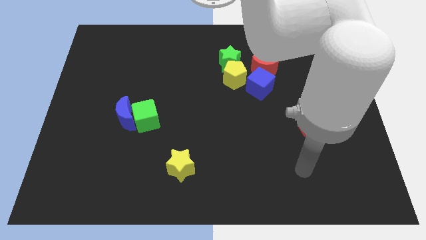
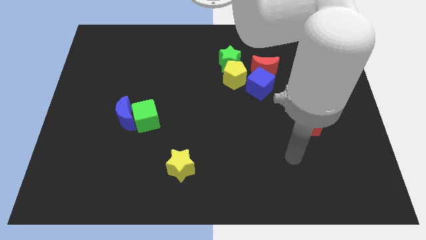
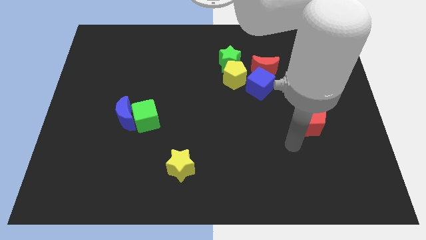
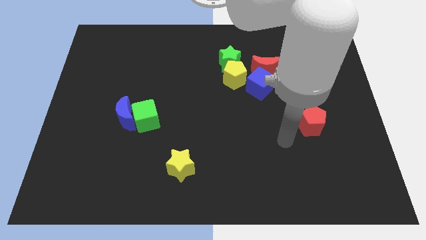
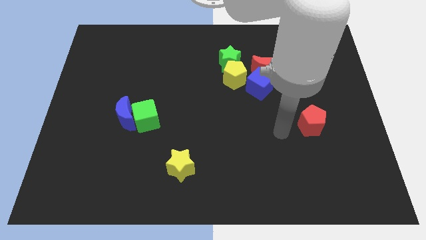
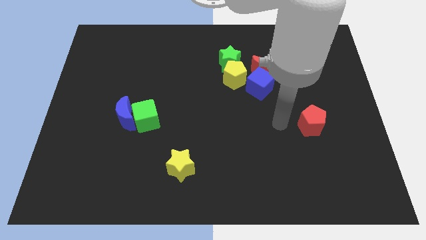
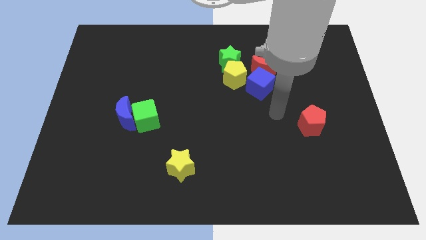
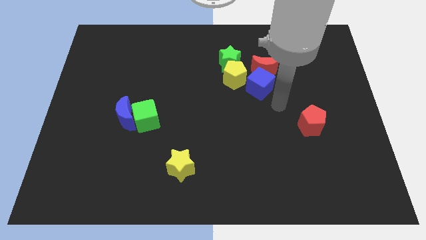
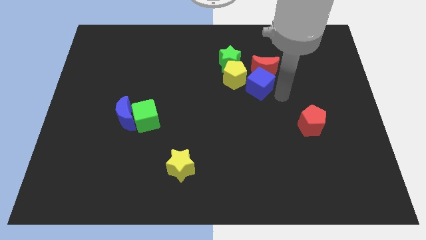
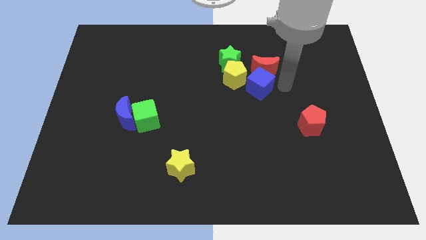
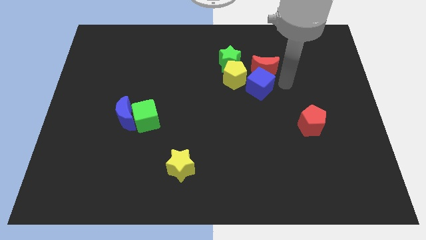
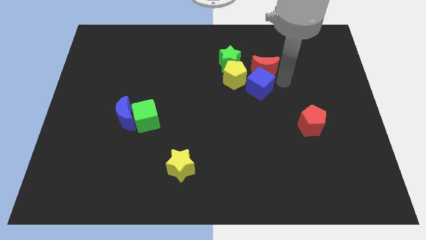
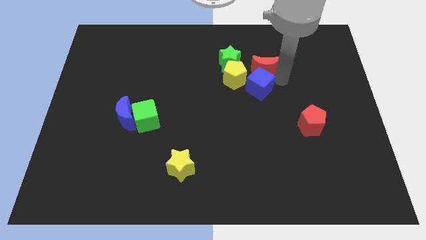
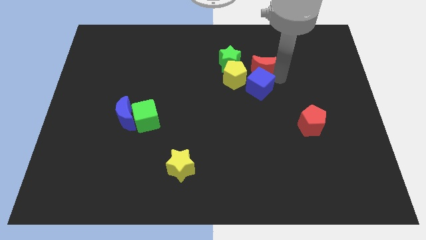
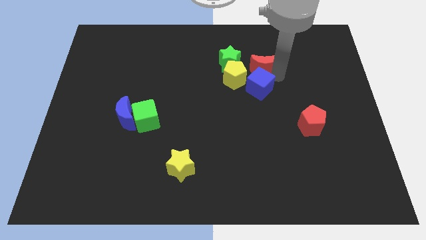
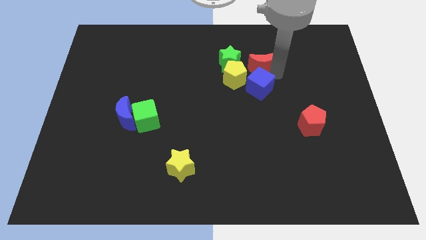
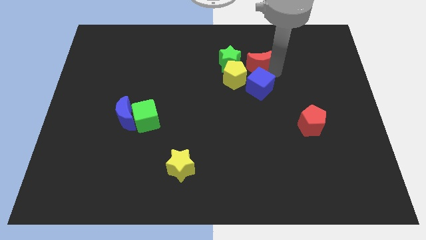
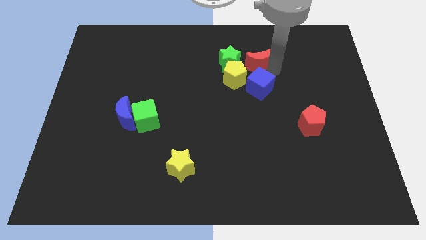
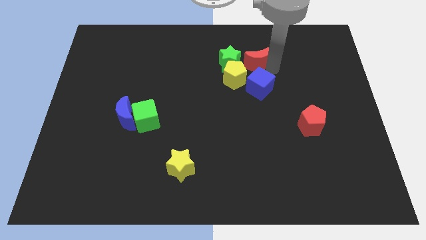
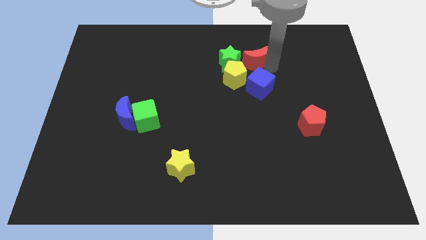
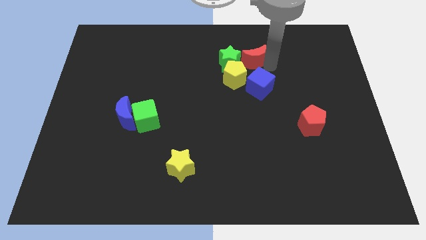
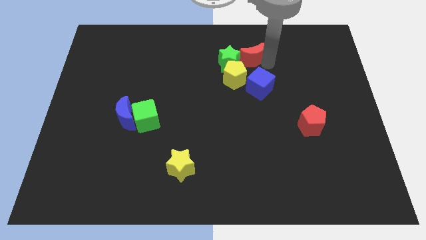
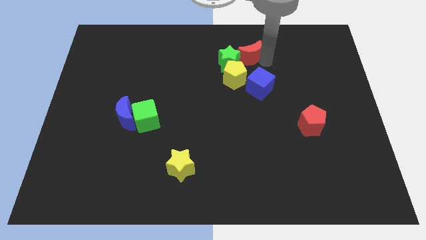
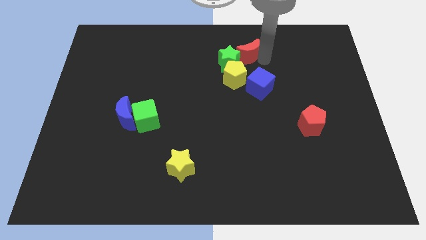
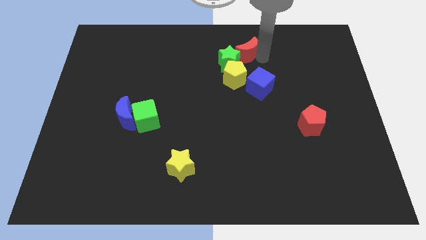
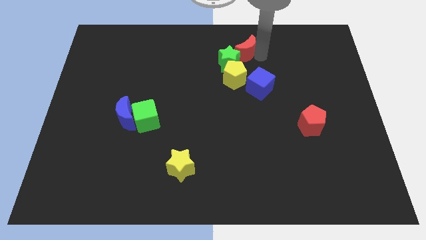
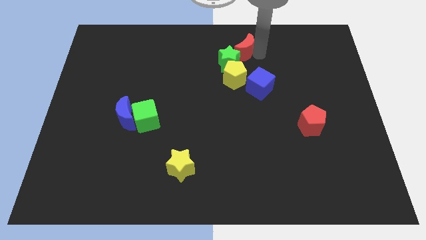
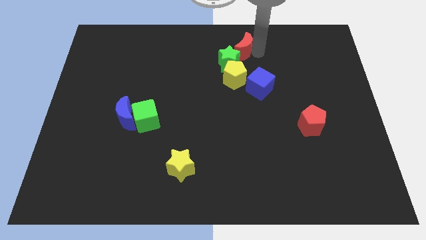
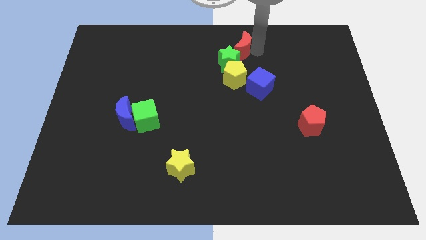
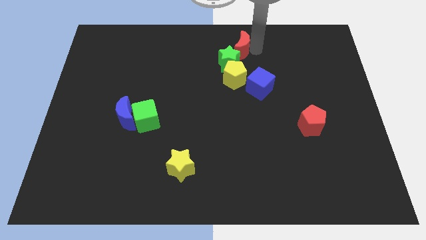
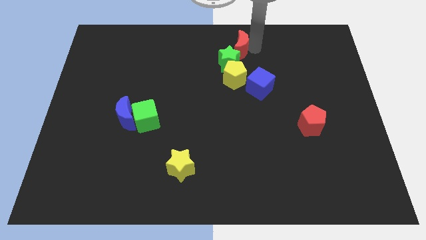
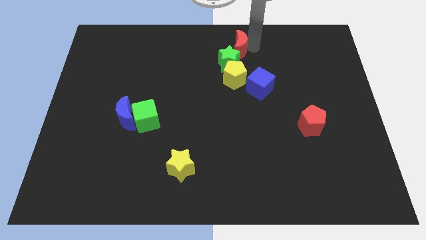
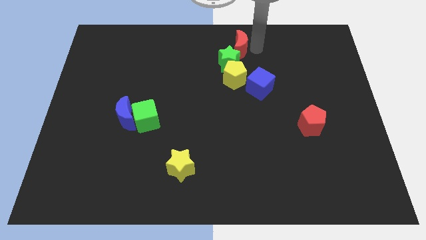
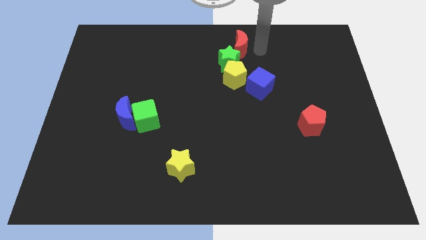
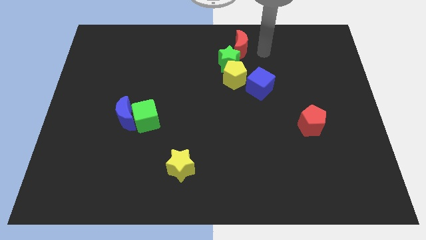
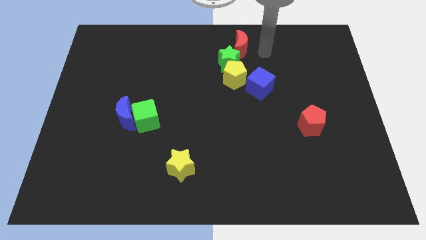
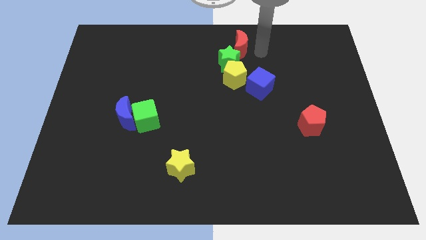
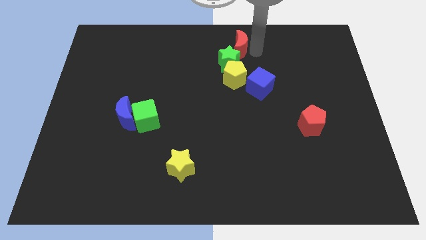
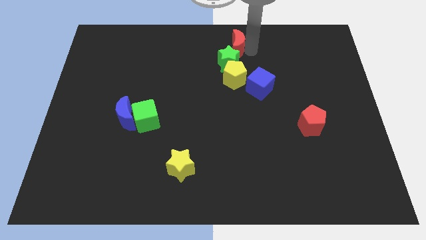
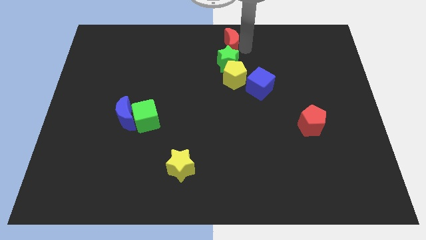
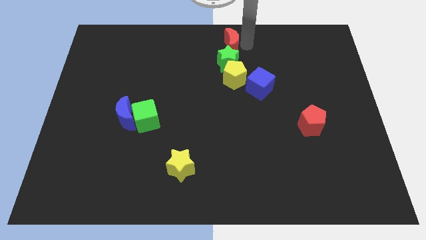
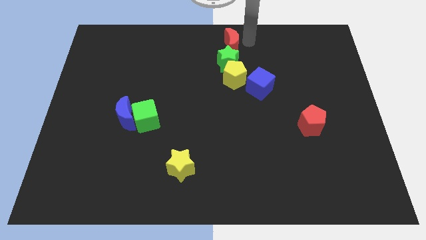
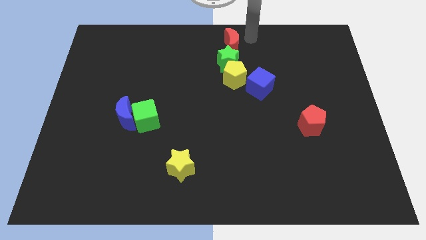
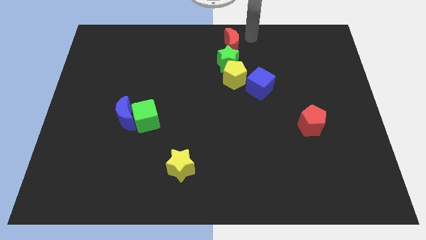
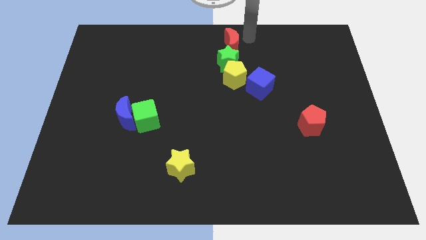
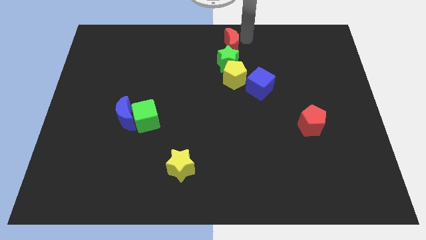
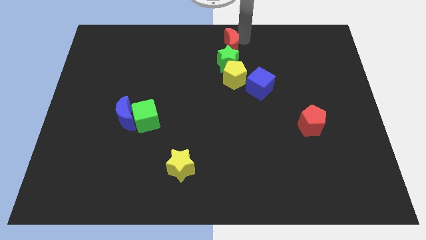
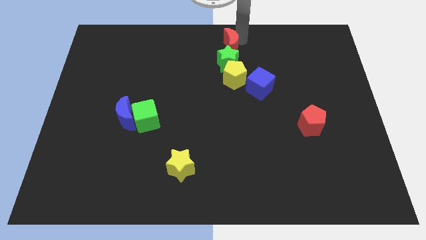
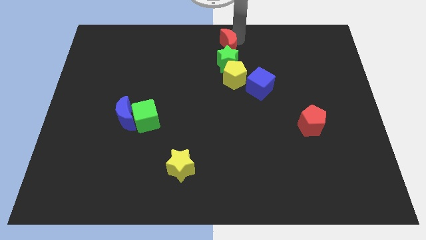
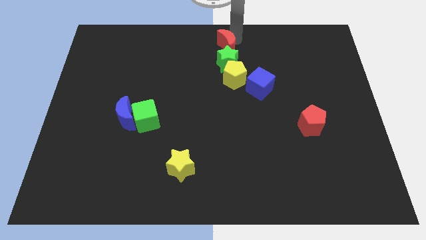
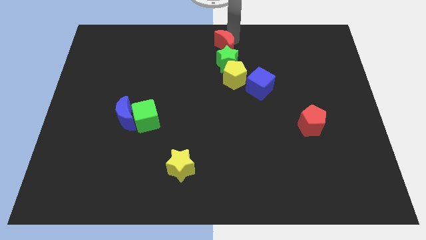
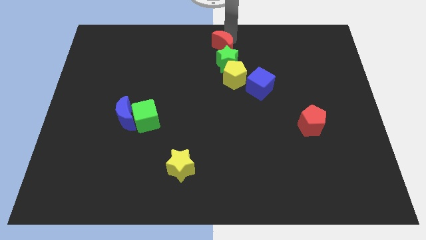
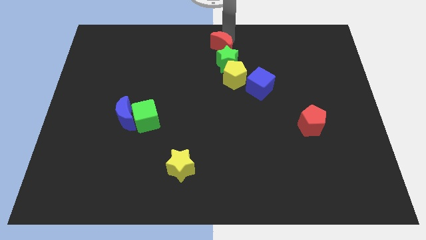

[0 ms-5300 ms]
push the red moon to the left a little

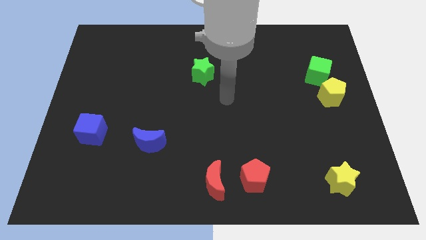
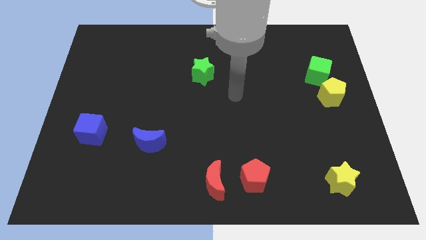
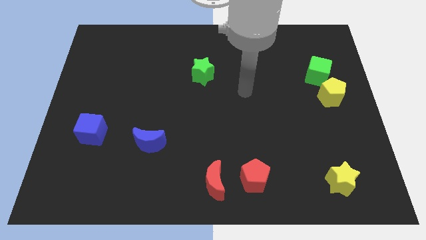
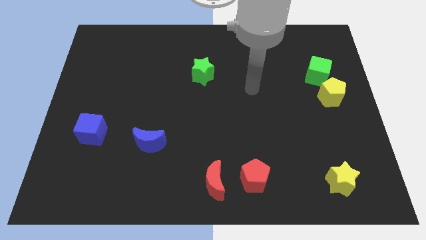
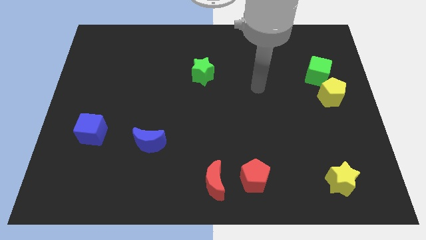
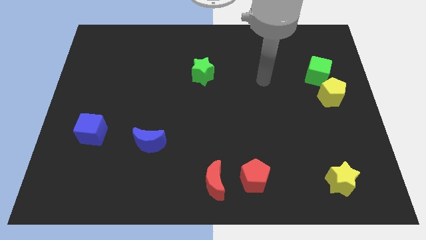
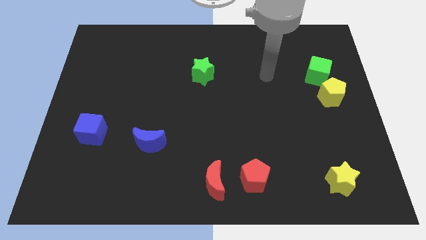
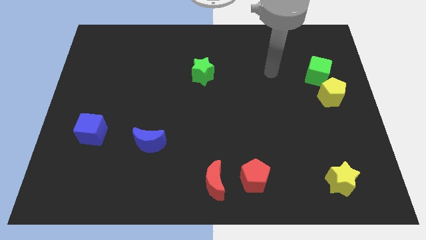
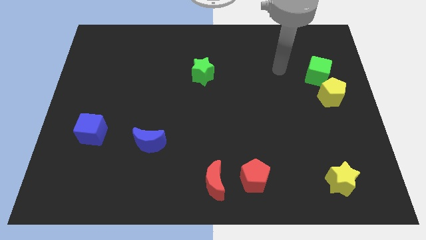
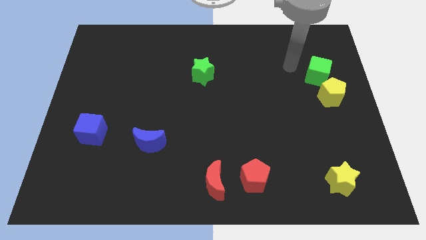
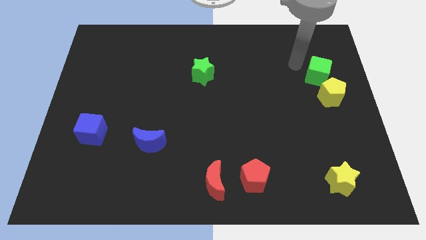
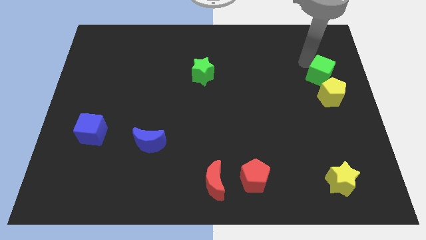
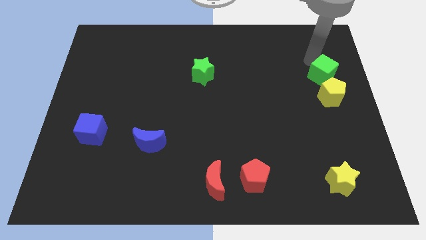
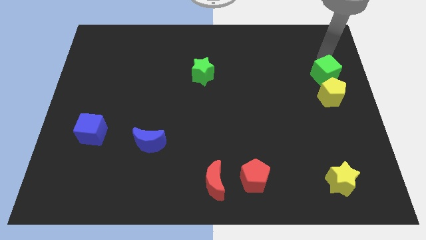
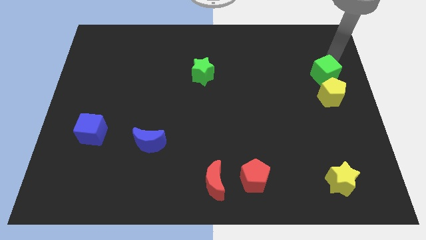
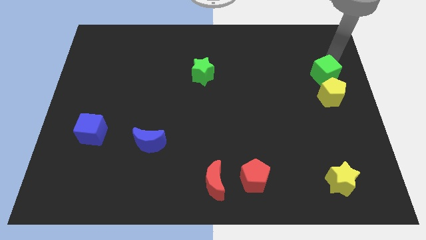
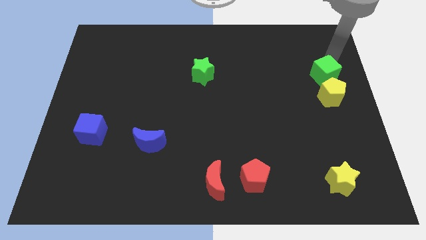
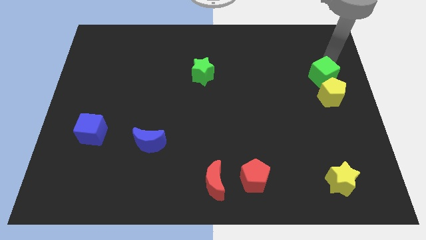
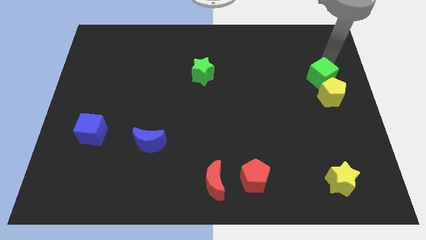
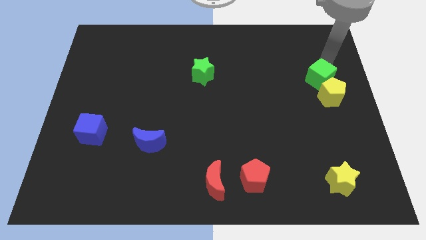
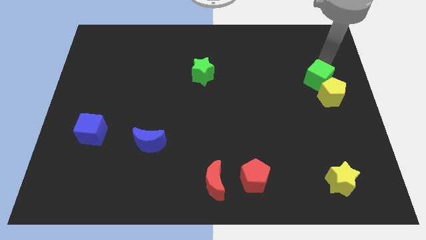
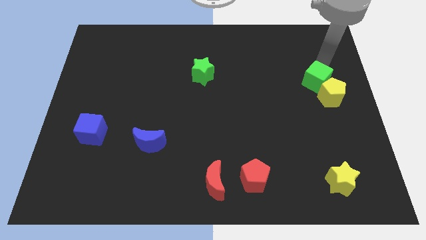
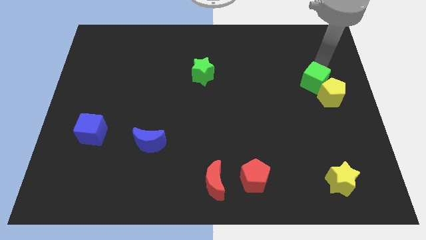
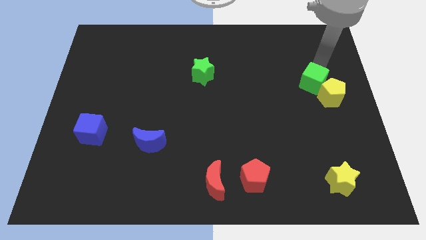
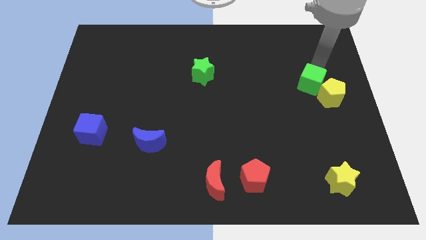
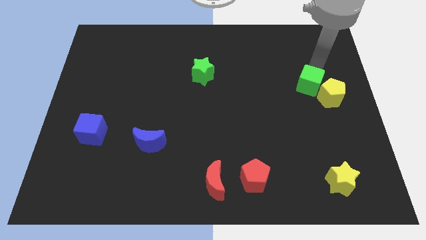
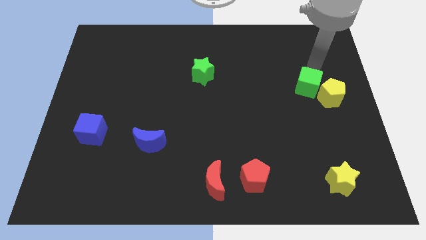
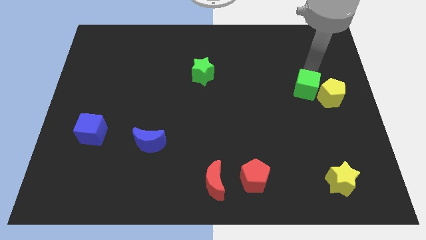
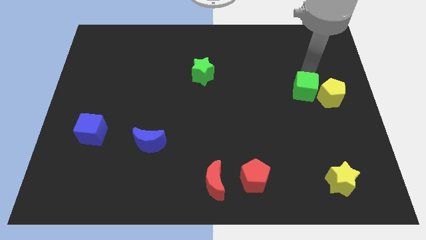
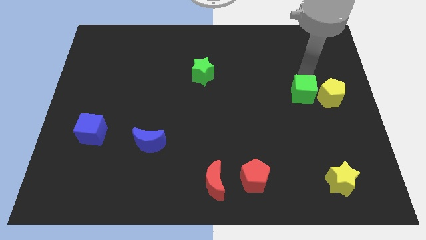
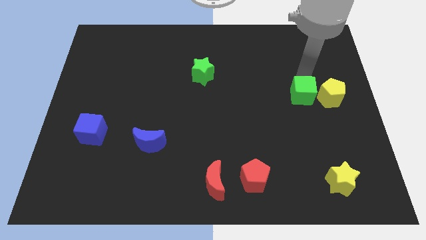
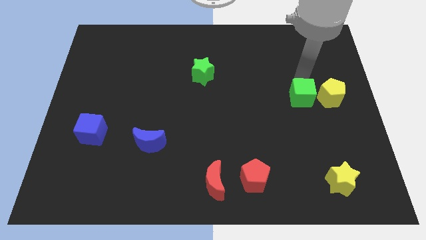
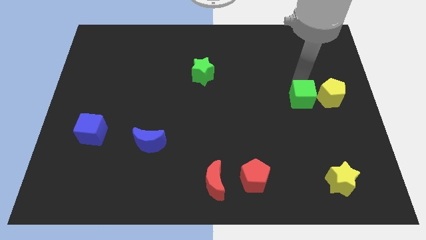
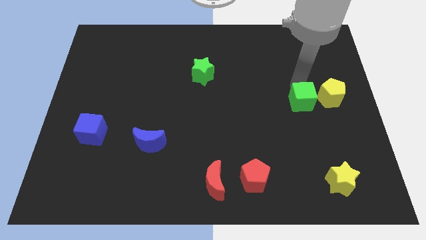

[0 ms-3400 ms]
move the green cube a little bit down
